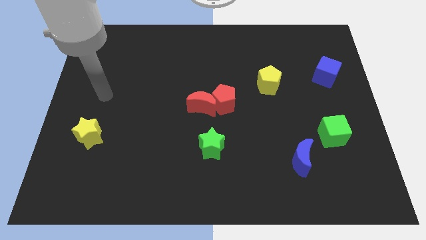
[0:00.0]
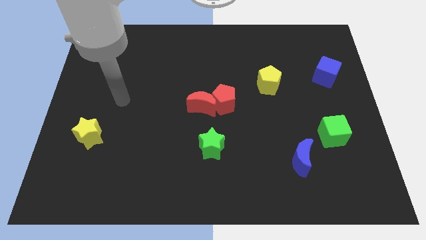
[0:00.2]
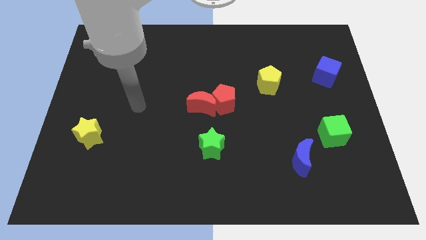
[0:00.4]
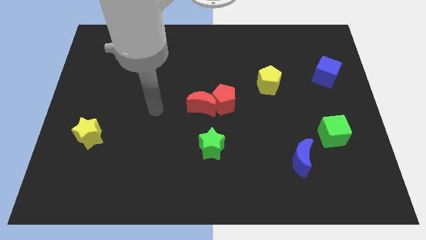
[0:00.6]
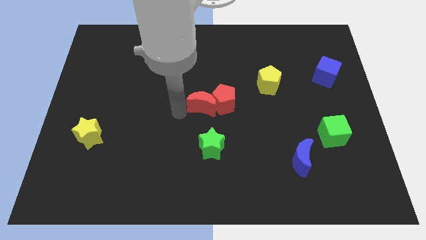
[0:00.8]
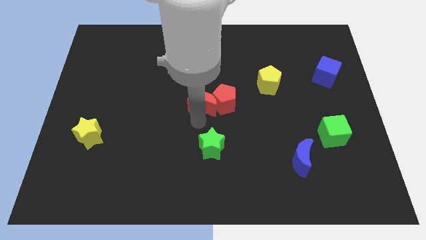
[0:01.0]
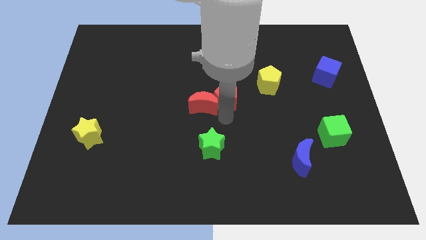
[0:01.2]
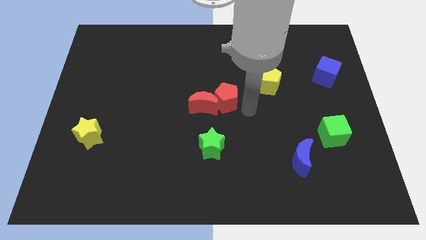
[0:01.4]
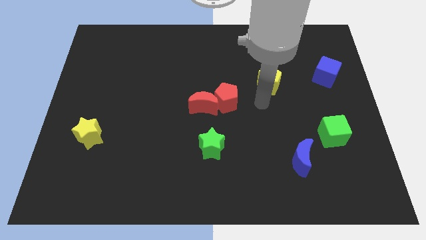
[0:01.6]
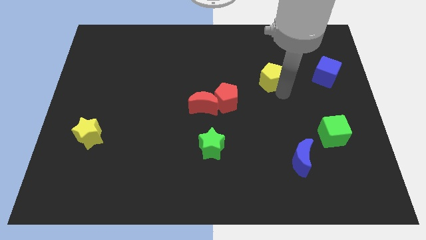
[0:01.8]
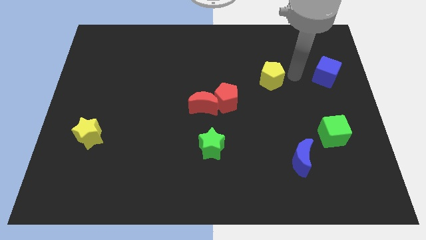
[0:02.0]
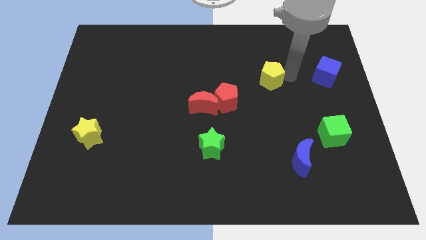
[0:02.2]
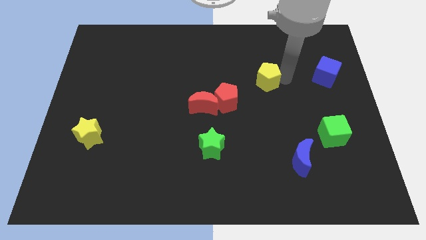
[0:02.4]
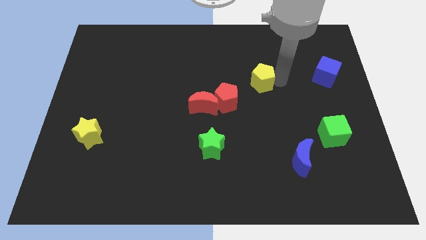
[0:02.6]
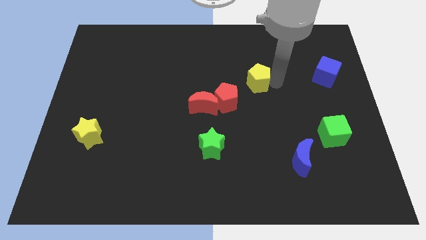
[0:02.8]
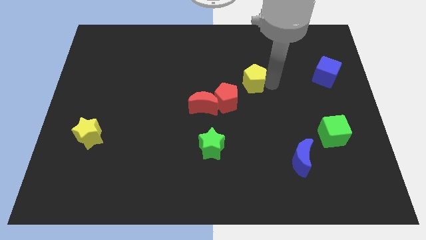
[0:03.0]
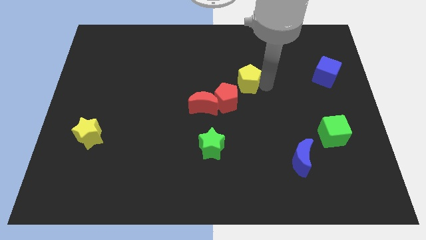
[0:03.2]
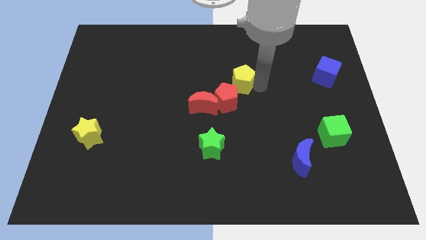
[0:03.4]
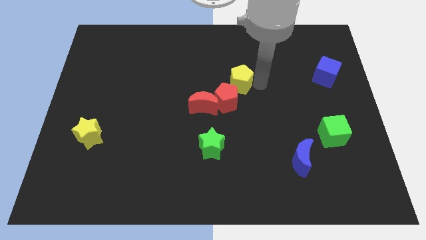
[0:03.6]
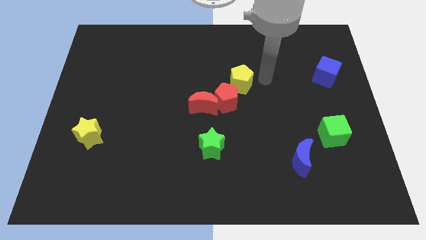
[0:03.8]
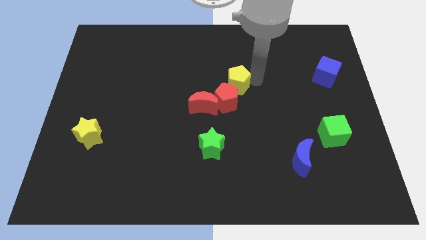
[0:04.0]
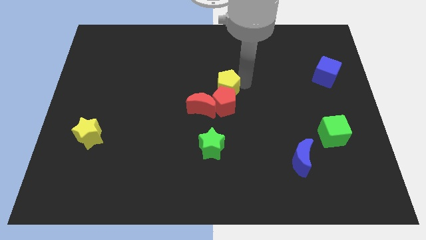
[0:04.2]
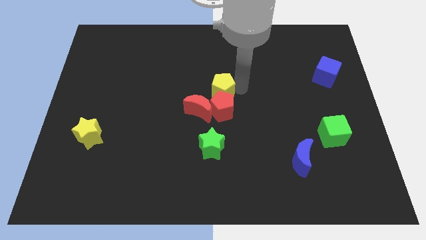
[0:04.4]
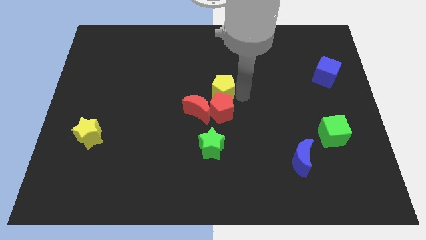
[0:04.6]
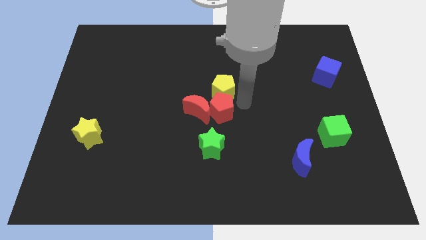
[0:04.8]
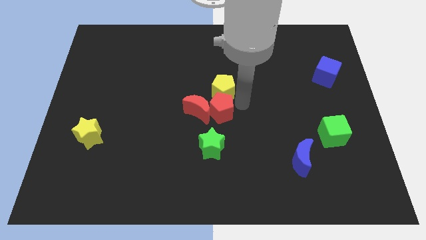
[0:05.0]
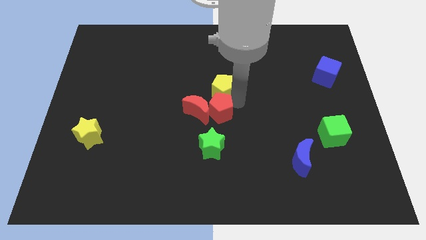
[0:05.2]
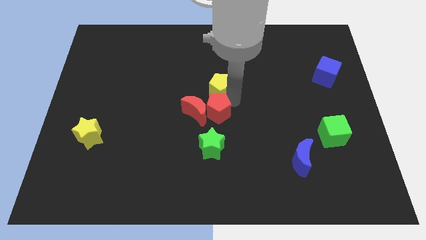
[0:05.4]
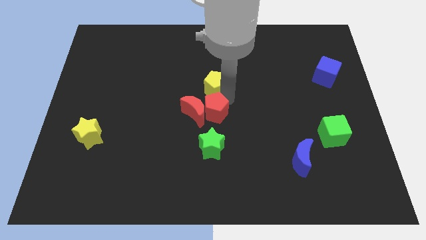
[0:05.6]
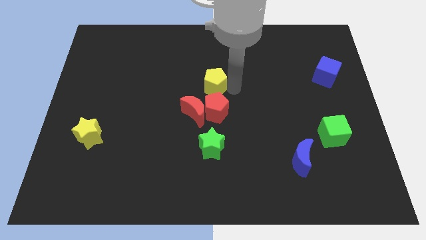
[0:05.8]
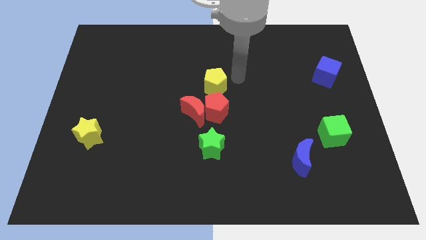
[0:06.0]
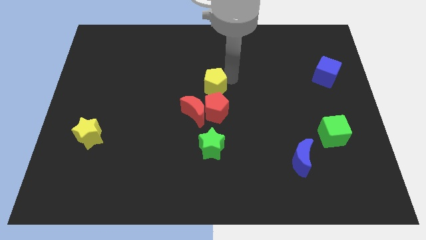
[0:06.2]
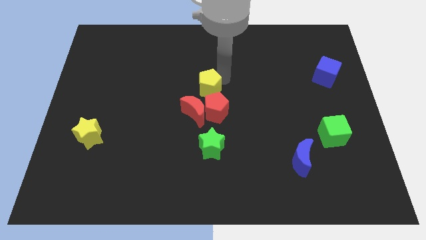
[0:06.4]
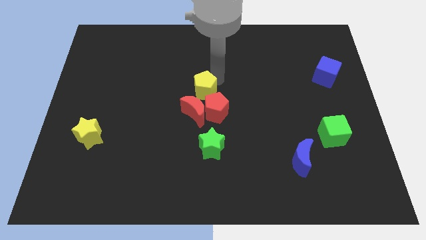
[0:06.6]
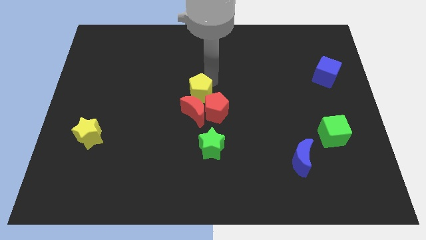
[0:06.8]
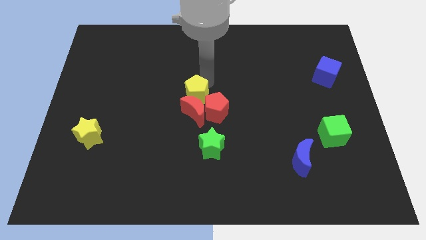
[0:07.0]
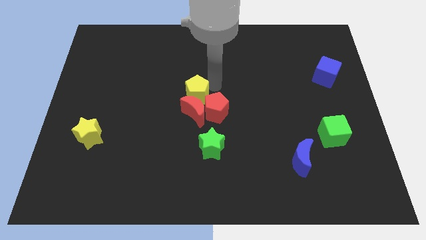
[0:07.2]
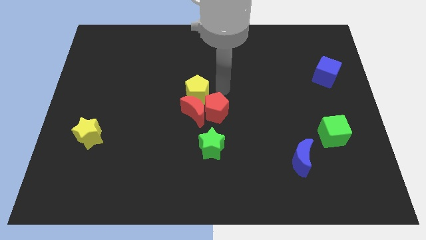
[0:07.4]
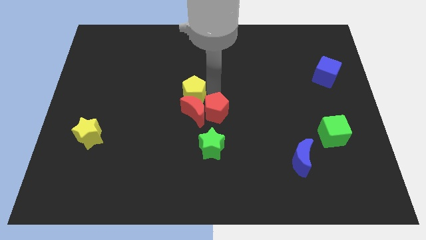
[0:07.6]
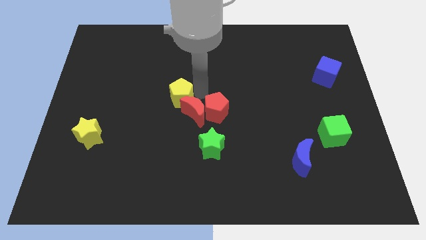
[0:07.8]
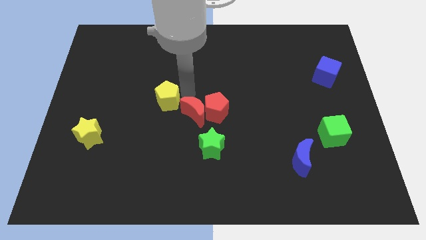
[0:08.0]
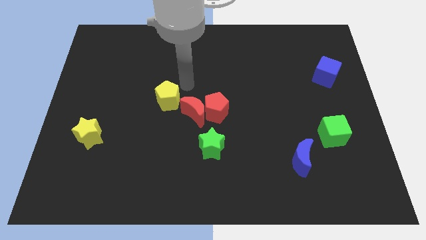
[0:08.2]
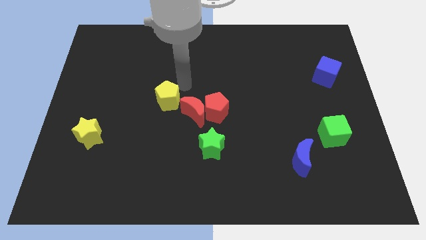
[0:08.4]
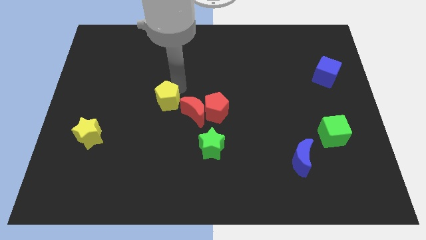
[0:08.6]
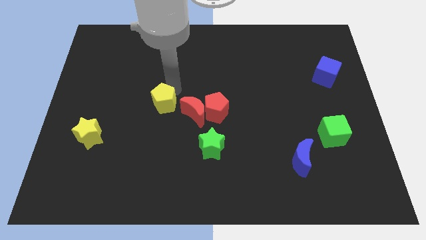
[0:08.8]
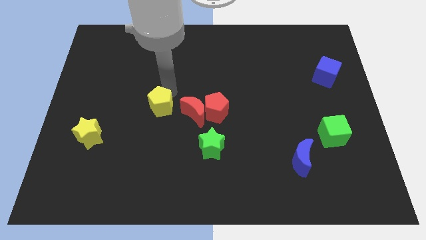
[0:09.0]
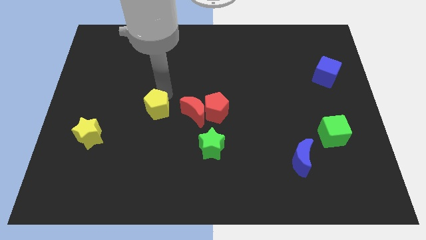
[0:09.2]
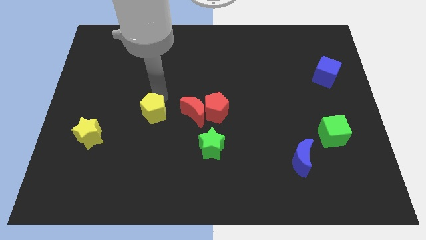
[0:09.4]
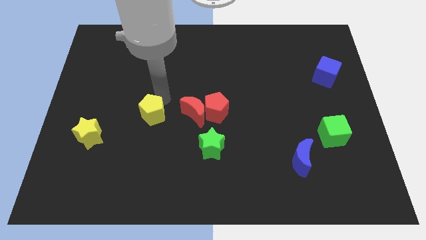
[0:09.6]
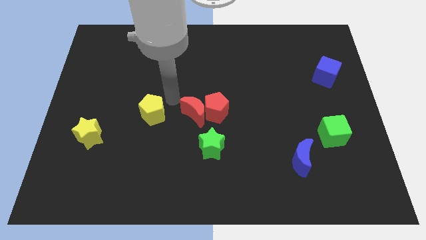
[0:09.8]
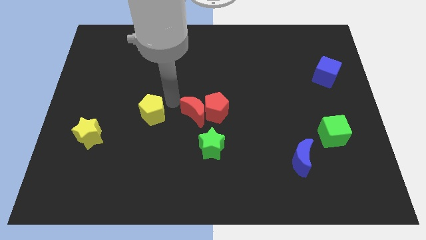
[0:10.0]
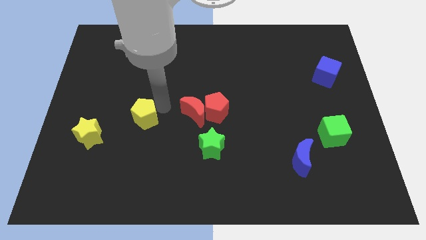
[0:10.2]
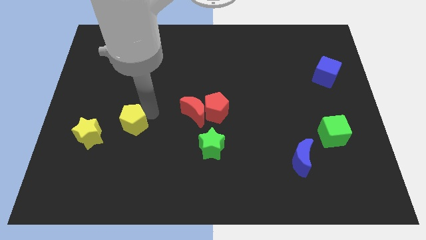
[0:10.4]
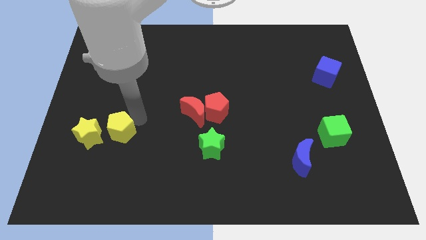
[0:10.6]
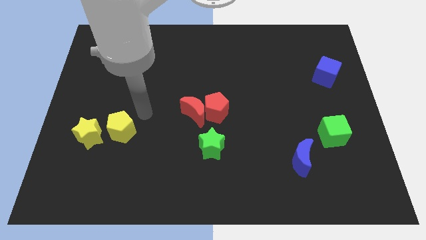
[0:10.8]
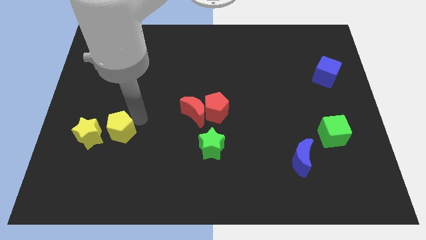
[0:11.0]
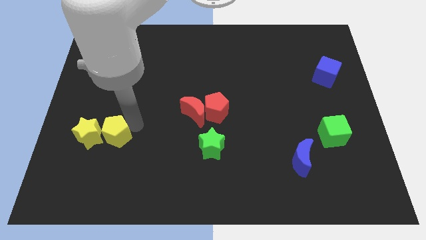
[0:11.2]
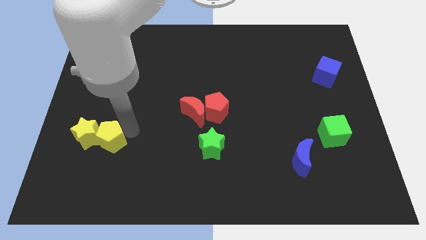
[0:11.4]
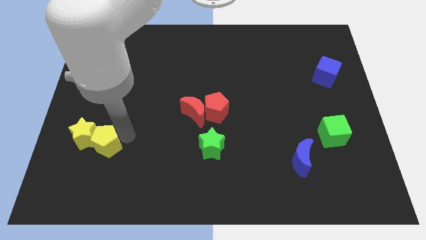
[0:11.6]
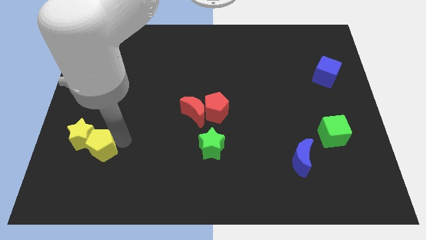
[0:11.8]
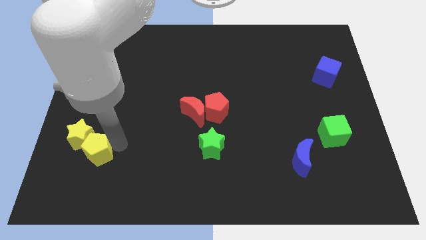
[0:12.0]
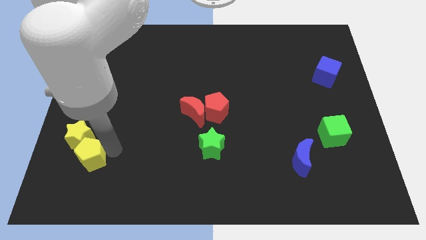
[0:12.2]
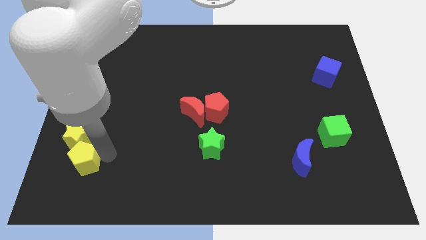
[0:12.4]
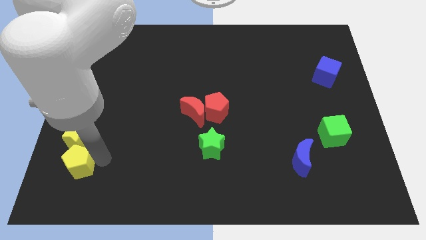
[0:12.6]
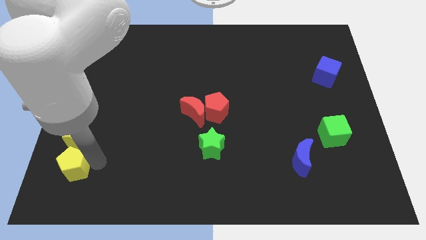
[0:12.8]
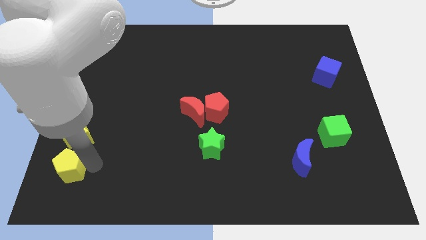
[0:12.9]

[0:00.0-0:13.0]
push the yellow pentagon to the bottom left
